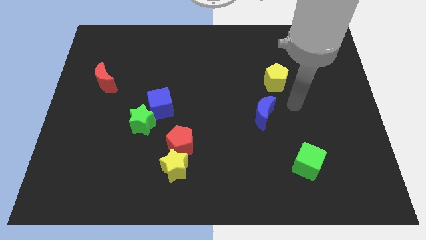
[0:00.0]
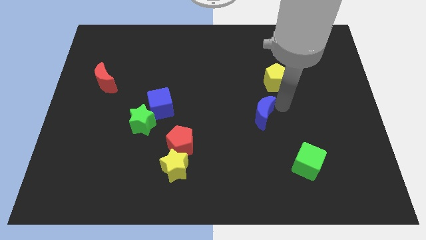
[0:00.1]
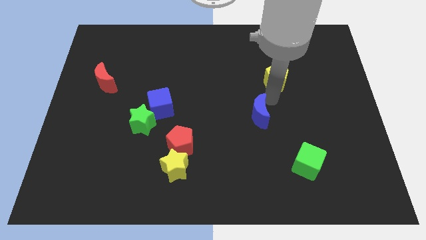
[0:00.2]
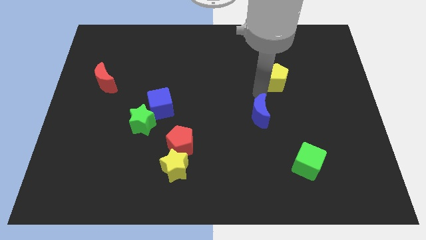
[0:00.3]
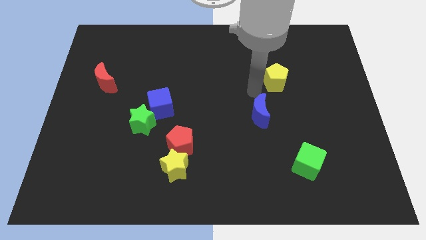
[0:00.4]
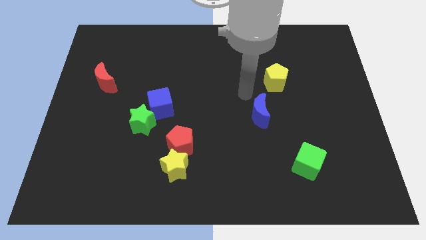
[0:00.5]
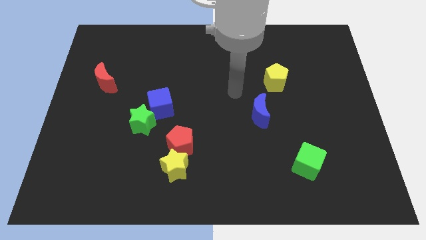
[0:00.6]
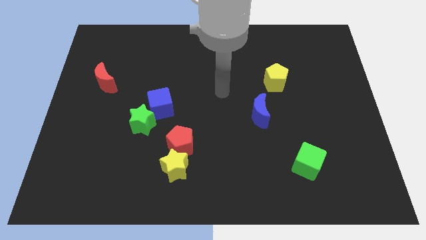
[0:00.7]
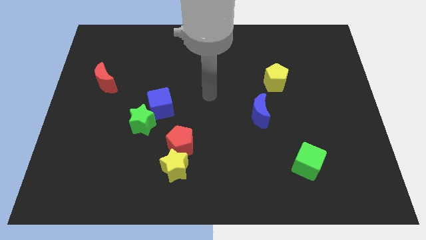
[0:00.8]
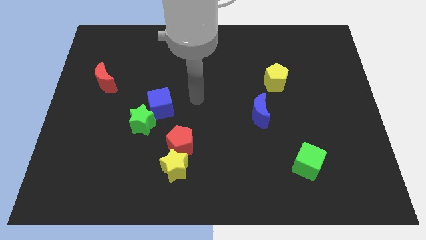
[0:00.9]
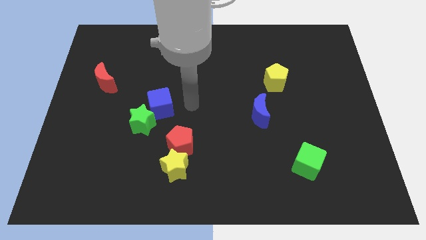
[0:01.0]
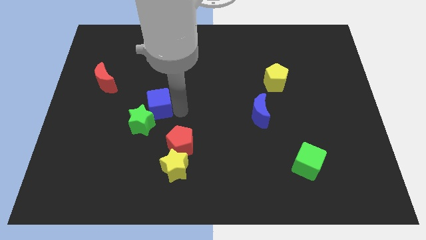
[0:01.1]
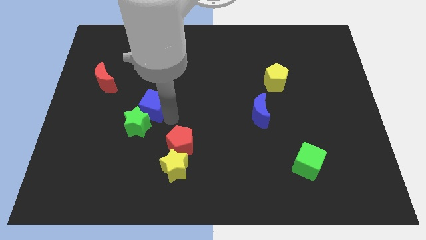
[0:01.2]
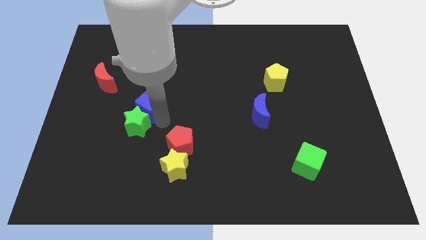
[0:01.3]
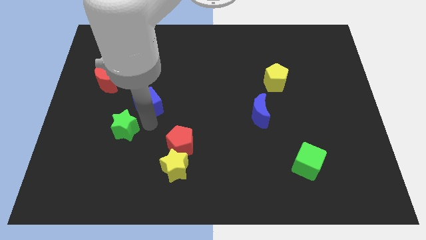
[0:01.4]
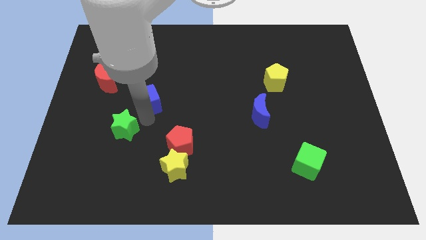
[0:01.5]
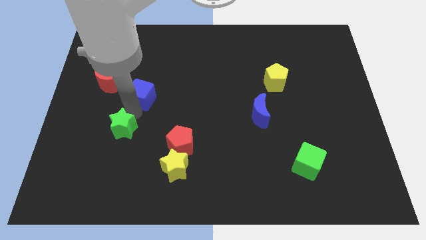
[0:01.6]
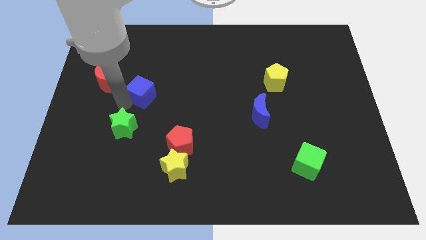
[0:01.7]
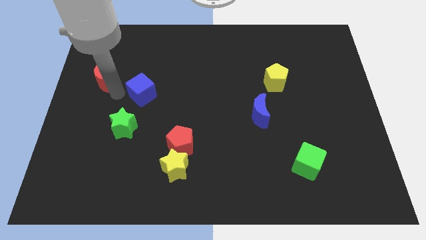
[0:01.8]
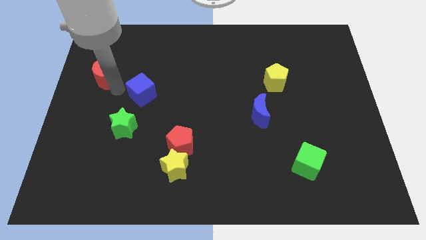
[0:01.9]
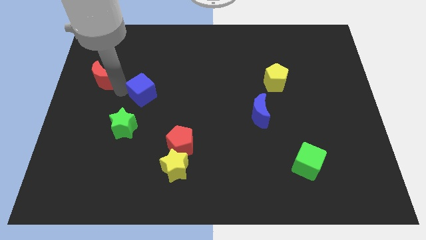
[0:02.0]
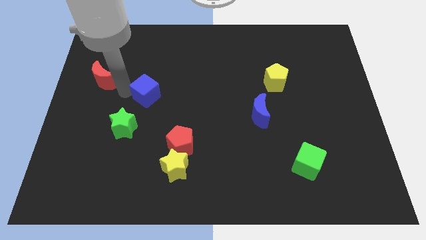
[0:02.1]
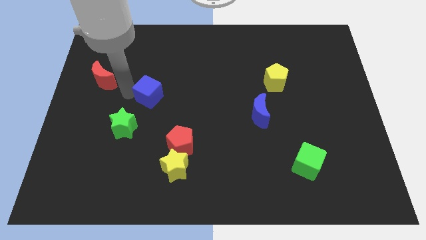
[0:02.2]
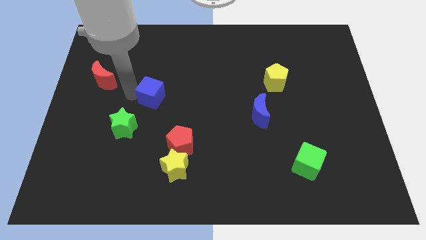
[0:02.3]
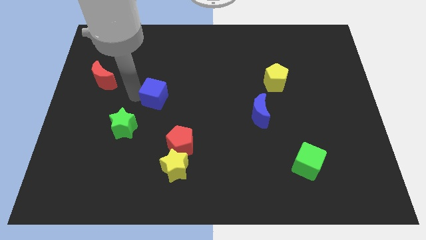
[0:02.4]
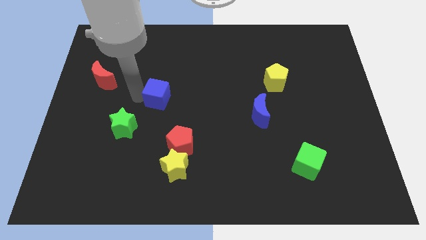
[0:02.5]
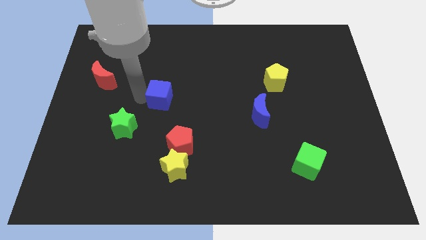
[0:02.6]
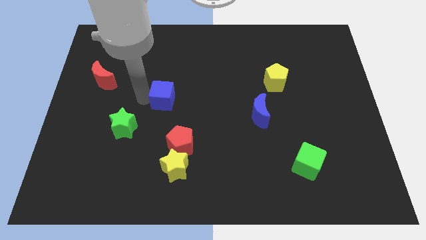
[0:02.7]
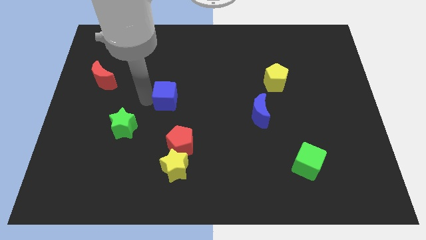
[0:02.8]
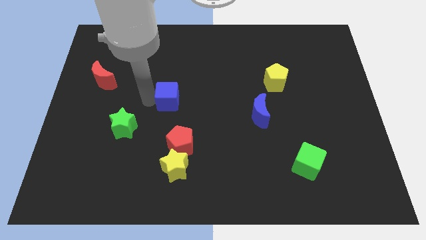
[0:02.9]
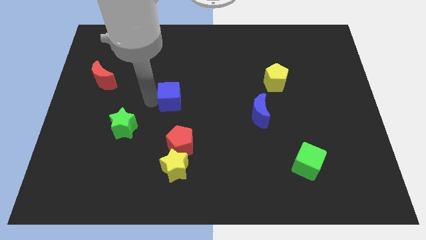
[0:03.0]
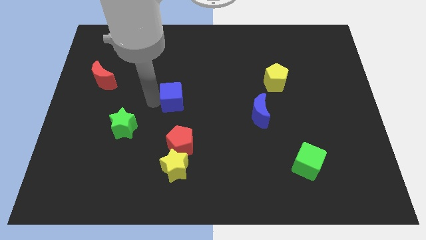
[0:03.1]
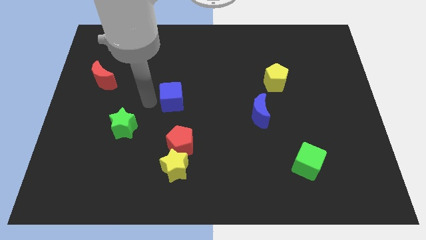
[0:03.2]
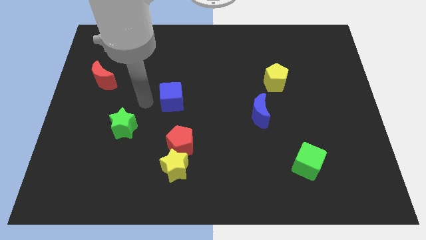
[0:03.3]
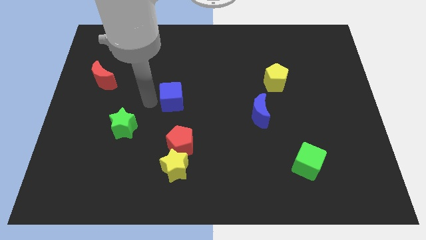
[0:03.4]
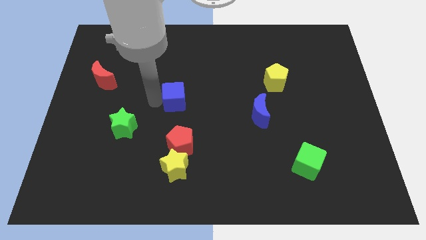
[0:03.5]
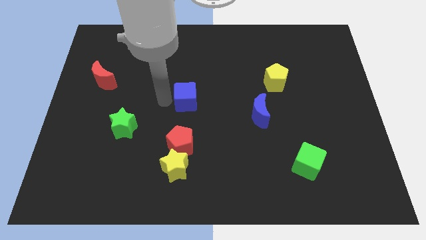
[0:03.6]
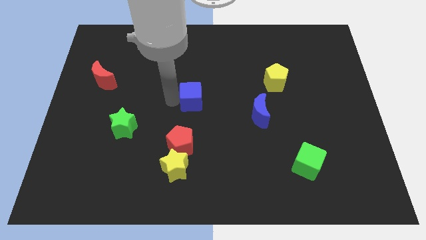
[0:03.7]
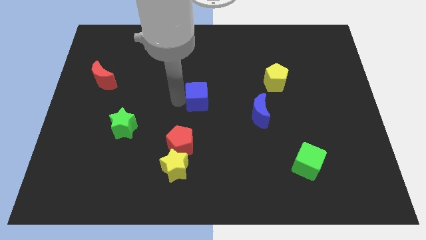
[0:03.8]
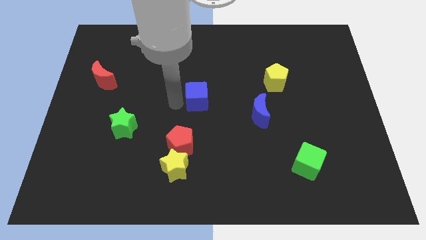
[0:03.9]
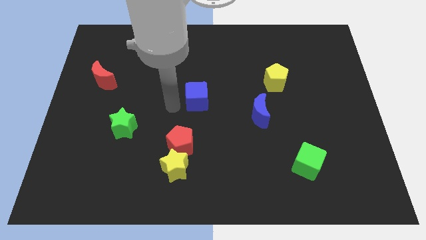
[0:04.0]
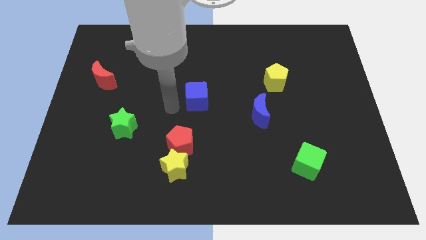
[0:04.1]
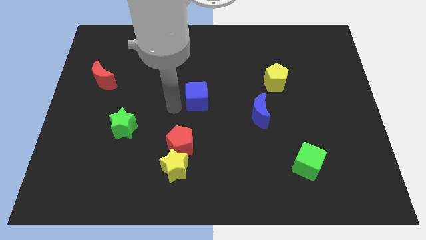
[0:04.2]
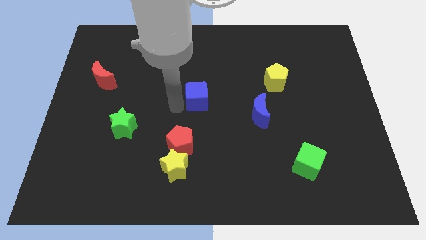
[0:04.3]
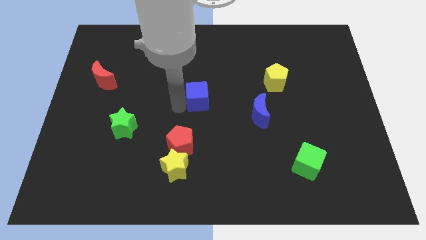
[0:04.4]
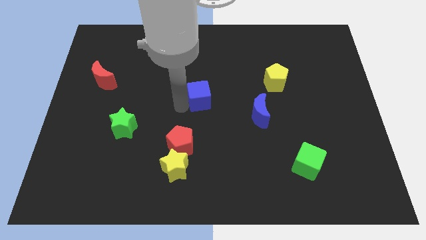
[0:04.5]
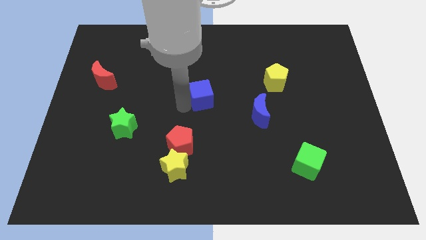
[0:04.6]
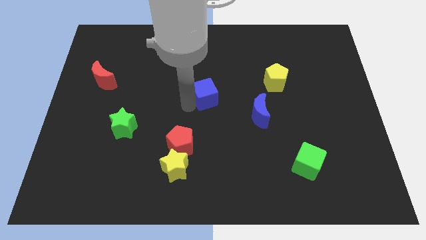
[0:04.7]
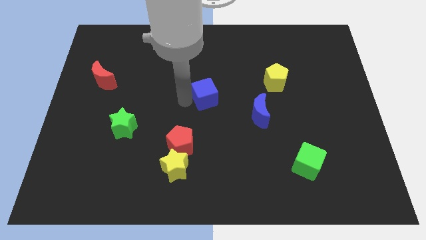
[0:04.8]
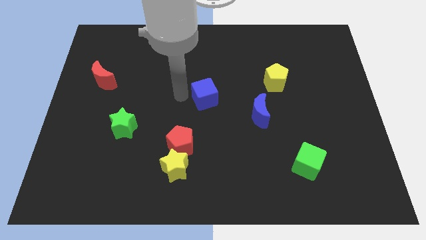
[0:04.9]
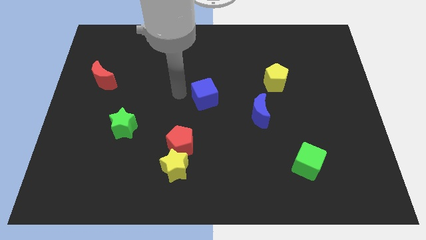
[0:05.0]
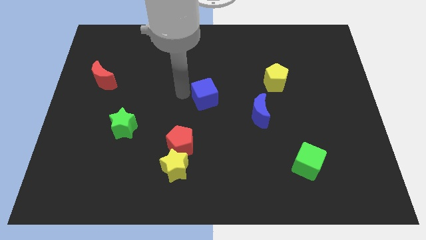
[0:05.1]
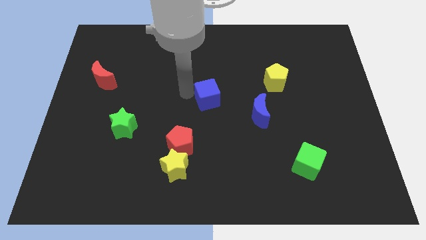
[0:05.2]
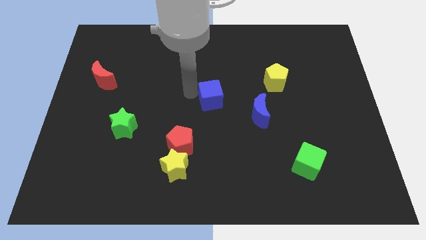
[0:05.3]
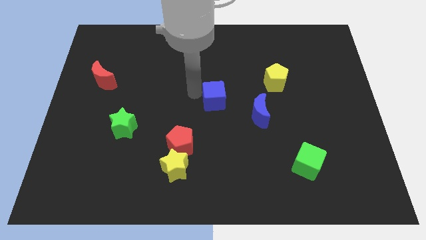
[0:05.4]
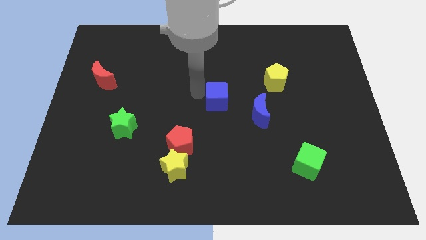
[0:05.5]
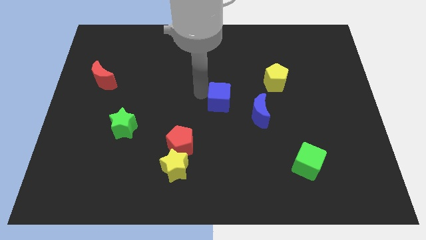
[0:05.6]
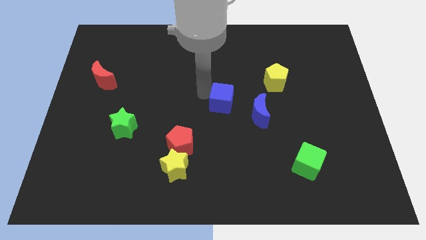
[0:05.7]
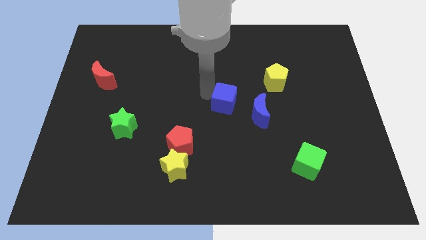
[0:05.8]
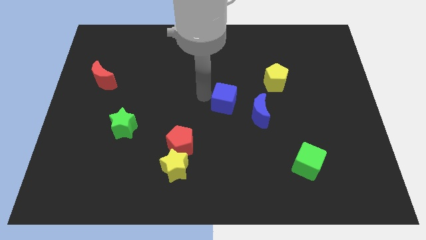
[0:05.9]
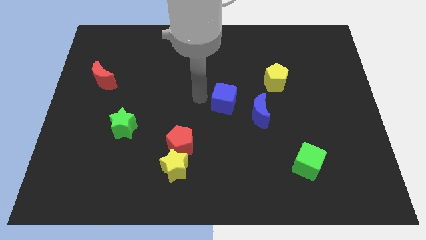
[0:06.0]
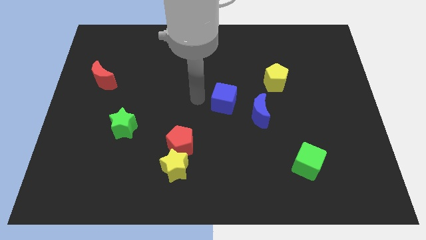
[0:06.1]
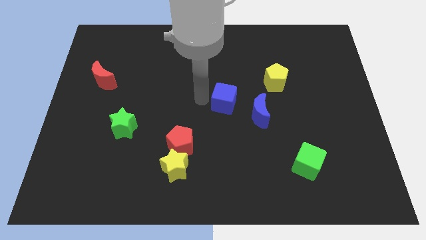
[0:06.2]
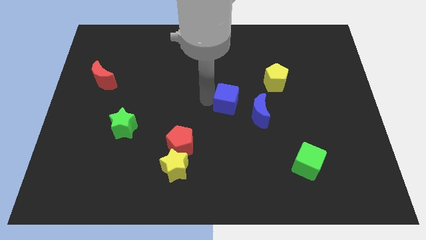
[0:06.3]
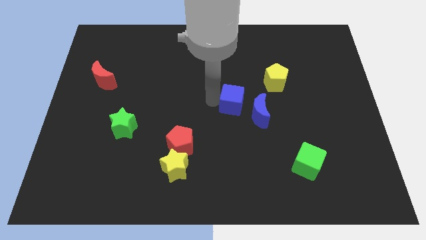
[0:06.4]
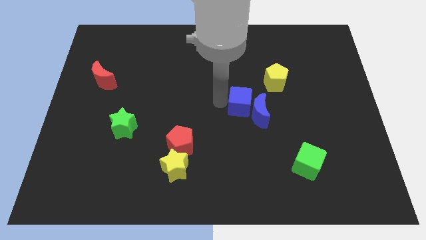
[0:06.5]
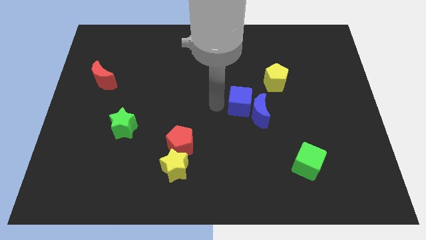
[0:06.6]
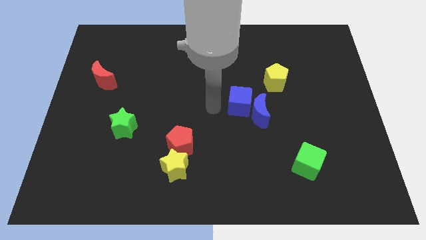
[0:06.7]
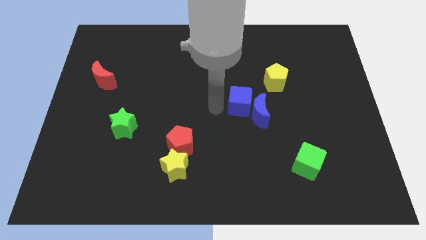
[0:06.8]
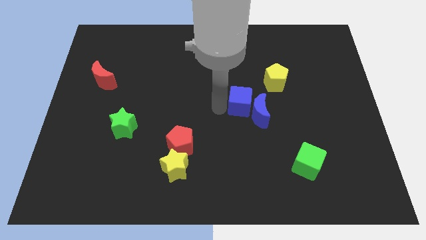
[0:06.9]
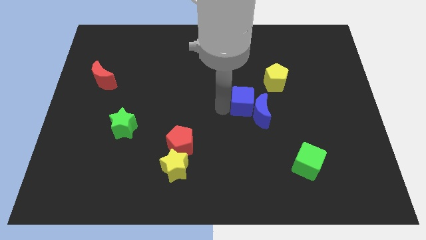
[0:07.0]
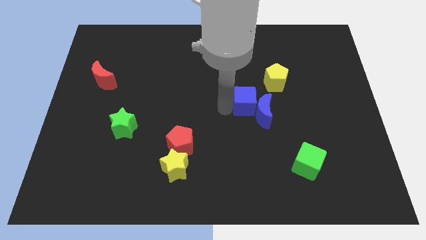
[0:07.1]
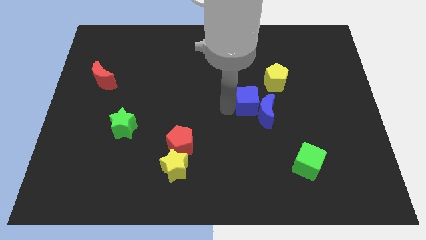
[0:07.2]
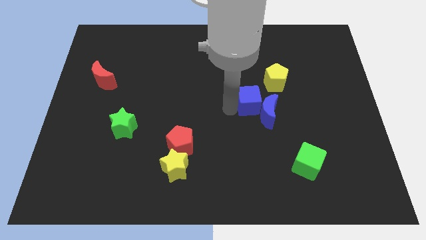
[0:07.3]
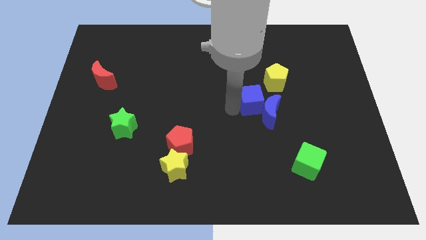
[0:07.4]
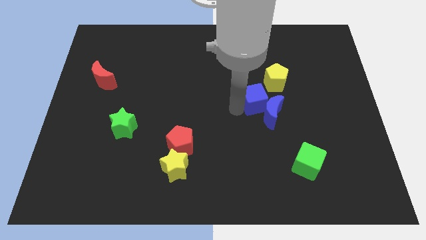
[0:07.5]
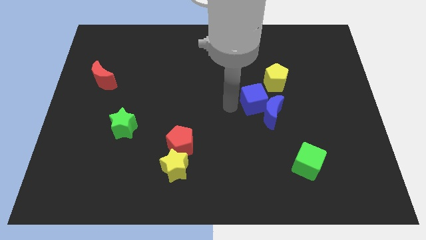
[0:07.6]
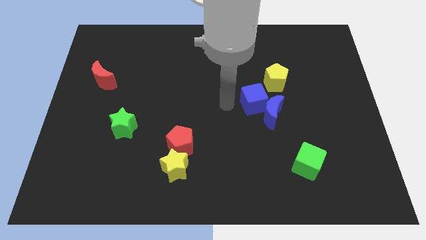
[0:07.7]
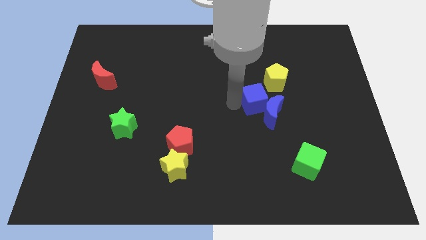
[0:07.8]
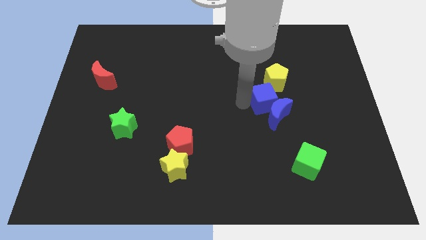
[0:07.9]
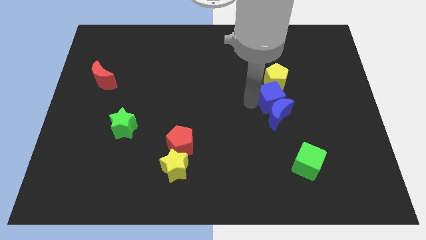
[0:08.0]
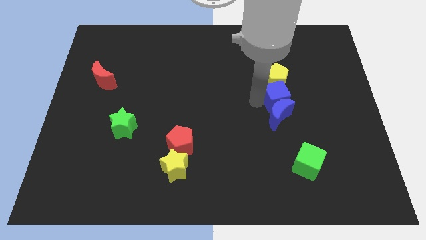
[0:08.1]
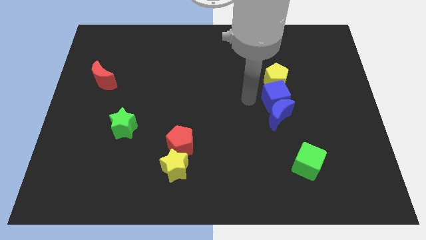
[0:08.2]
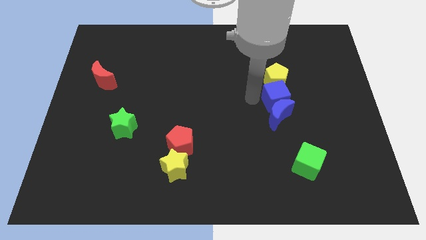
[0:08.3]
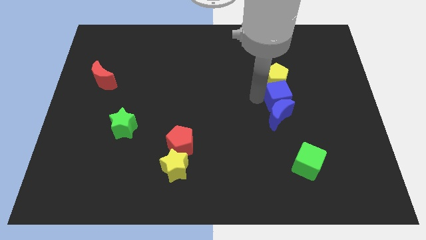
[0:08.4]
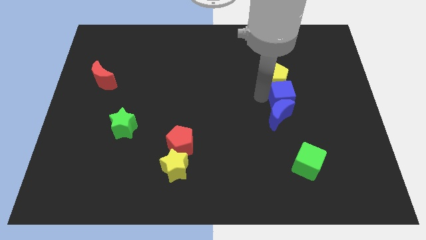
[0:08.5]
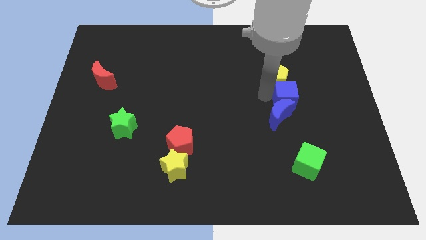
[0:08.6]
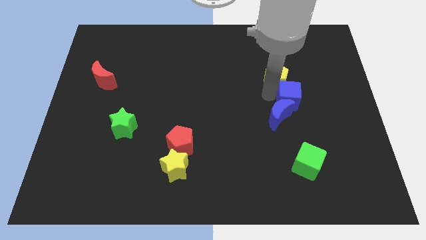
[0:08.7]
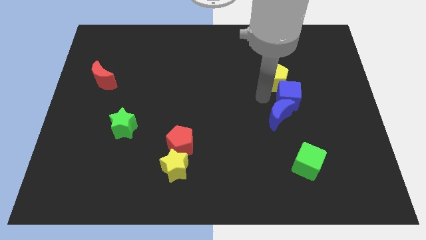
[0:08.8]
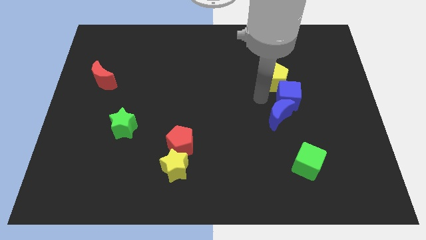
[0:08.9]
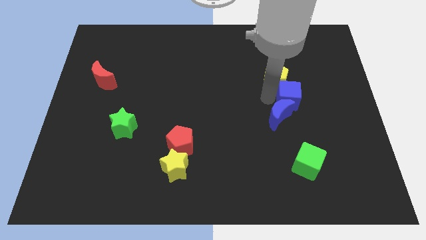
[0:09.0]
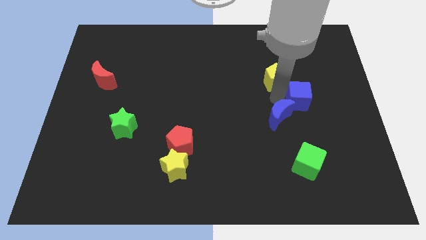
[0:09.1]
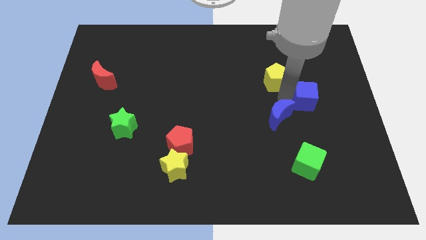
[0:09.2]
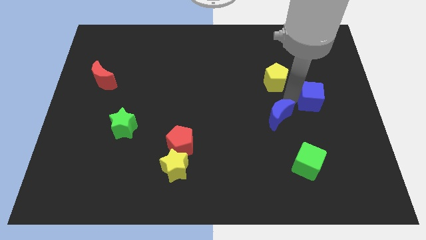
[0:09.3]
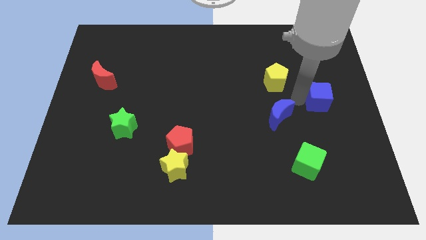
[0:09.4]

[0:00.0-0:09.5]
put the blue cube to the center right
